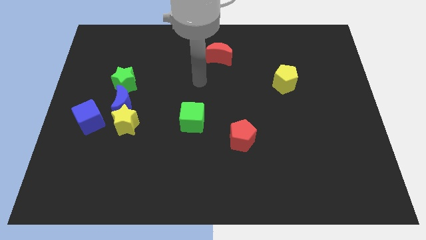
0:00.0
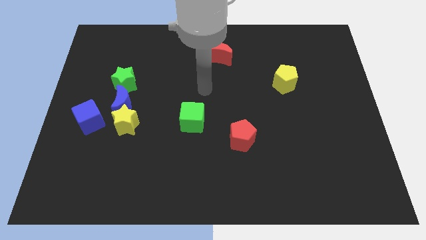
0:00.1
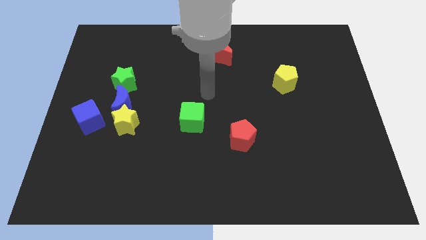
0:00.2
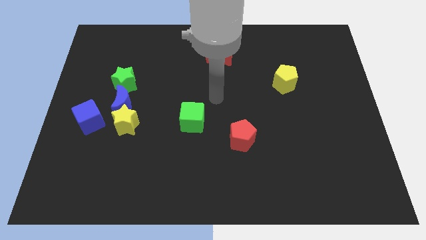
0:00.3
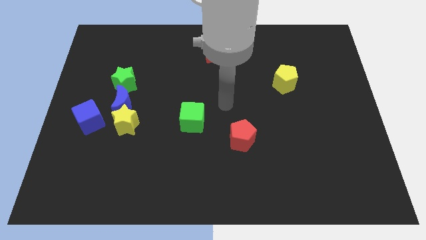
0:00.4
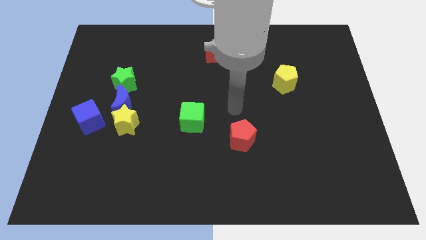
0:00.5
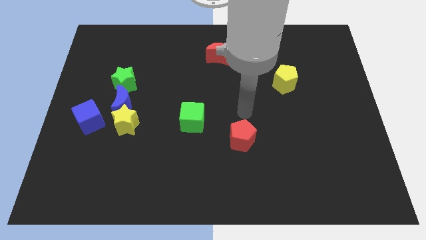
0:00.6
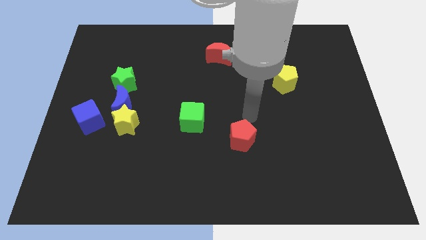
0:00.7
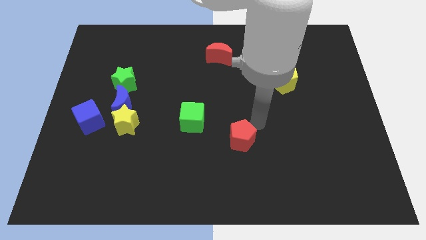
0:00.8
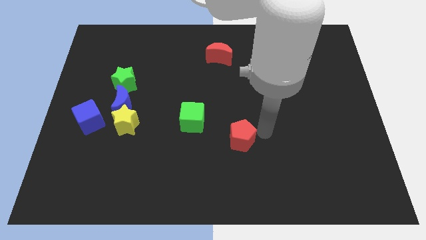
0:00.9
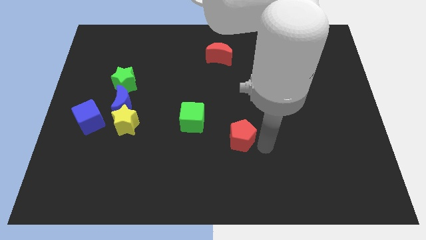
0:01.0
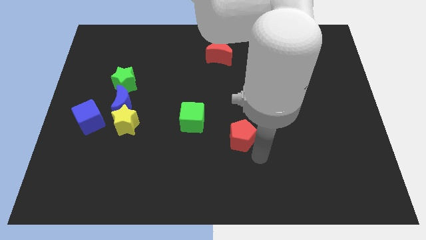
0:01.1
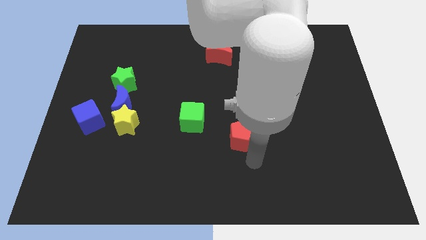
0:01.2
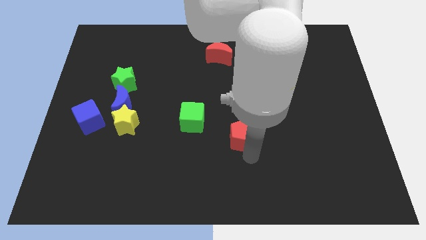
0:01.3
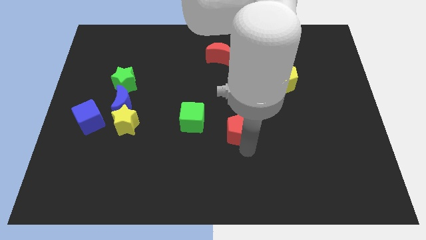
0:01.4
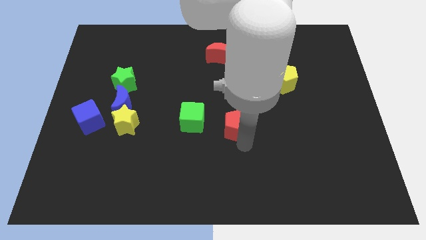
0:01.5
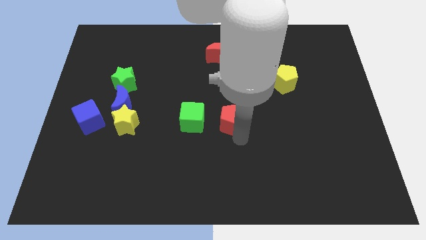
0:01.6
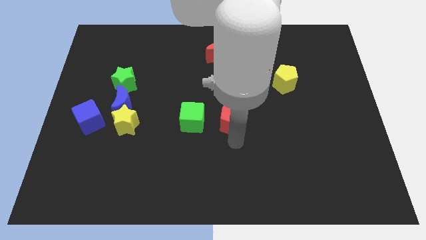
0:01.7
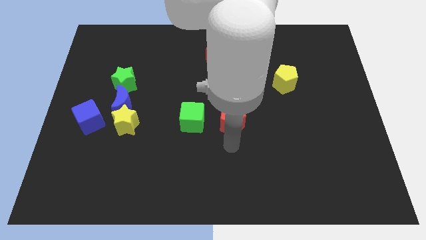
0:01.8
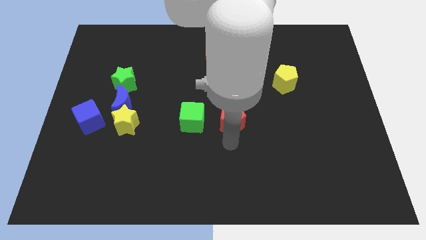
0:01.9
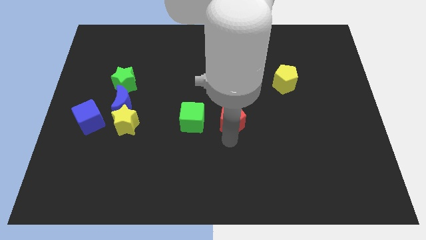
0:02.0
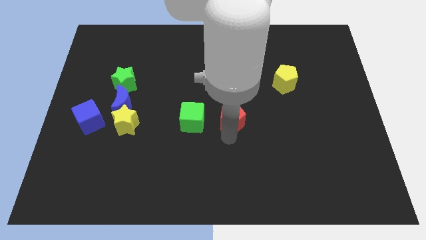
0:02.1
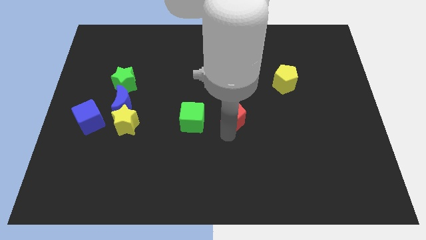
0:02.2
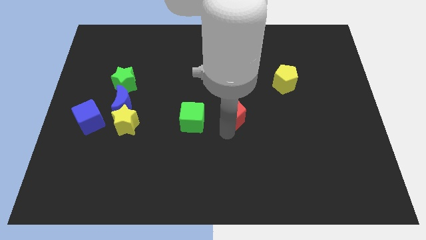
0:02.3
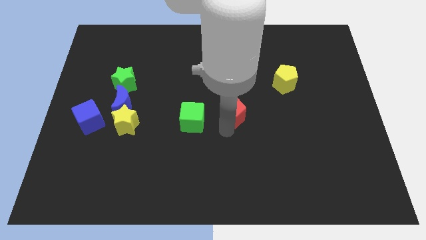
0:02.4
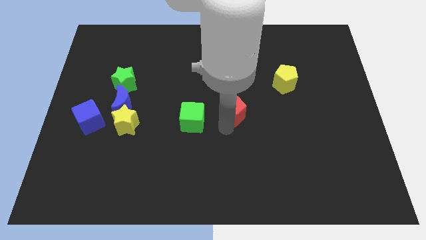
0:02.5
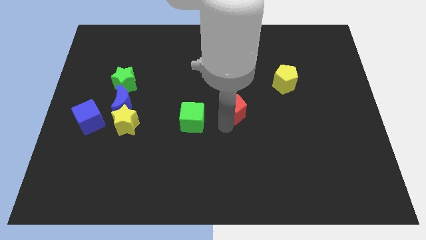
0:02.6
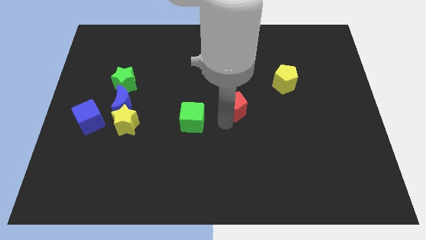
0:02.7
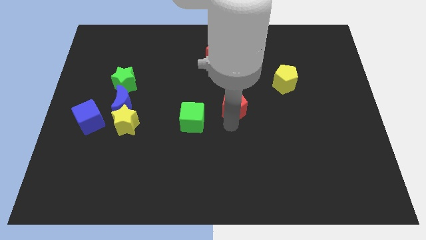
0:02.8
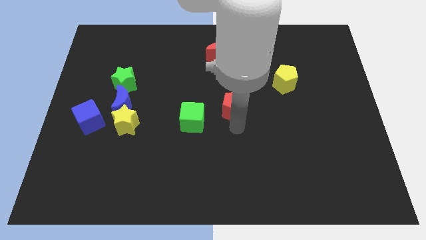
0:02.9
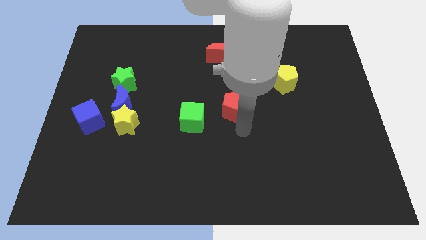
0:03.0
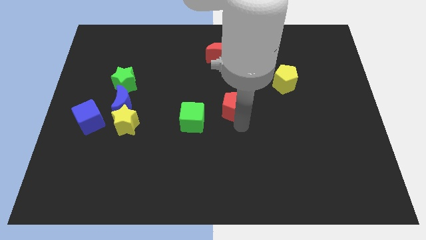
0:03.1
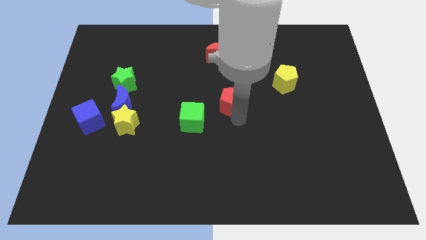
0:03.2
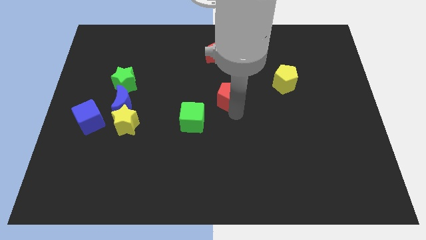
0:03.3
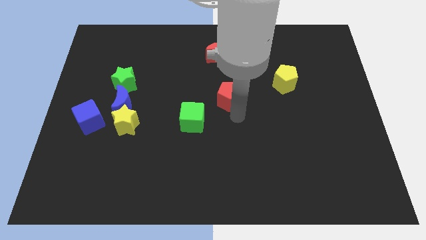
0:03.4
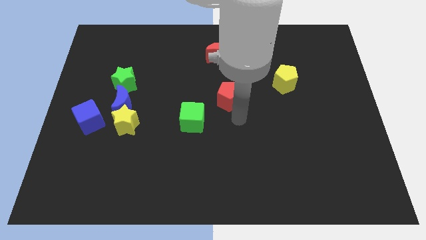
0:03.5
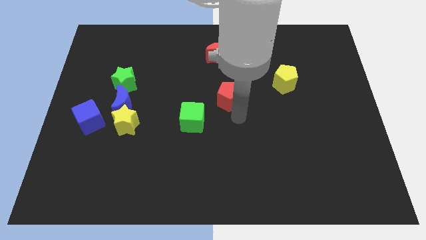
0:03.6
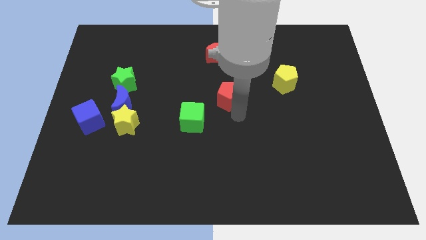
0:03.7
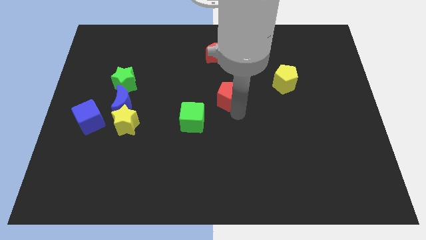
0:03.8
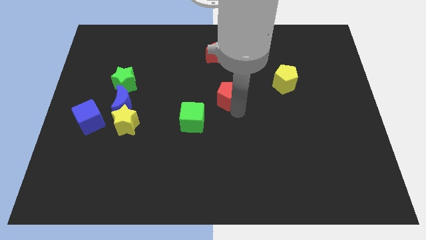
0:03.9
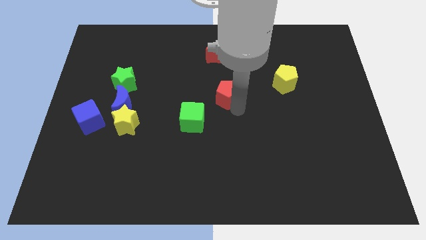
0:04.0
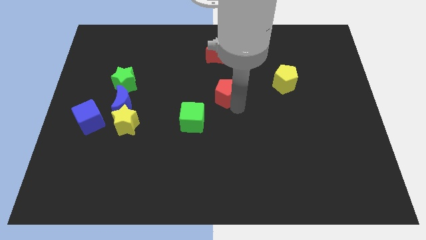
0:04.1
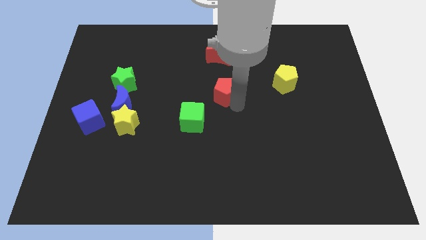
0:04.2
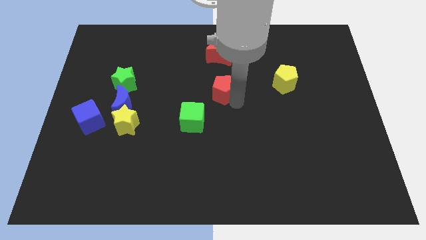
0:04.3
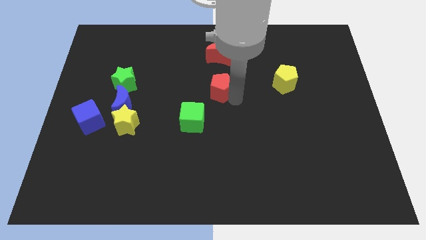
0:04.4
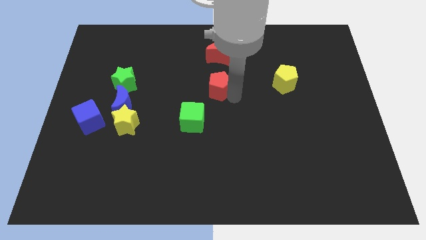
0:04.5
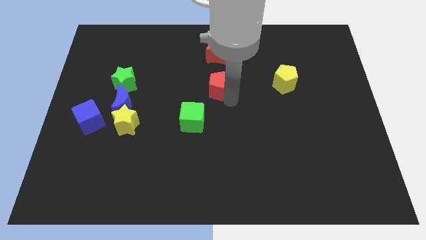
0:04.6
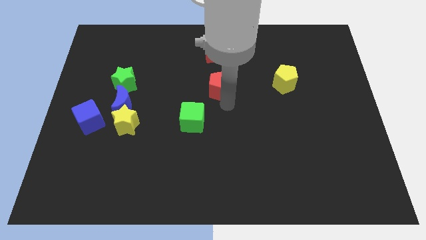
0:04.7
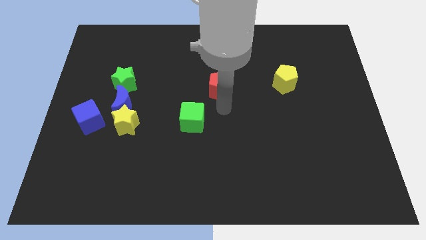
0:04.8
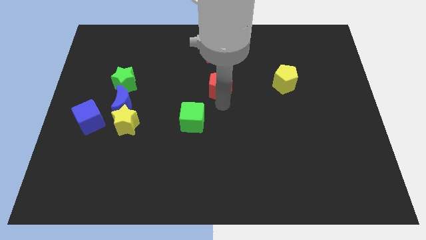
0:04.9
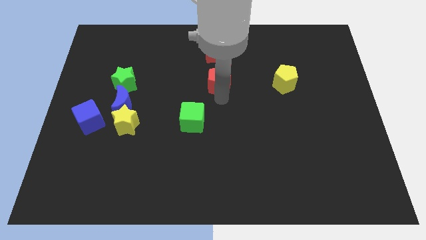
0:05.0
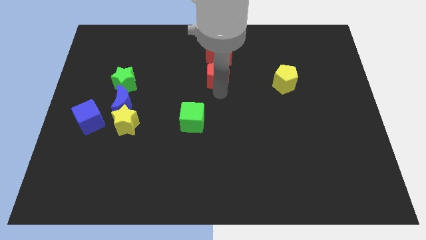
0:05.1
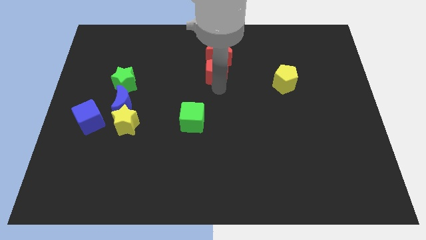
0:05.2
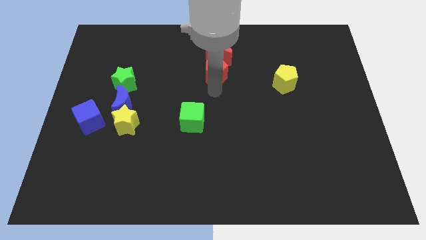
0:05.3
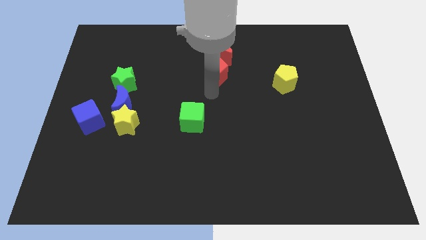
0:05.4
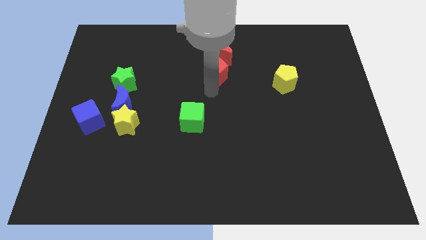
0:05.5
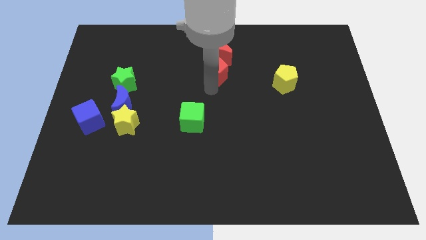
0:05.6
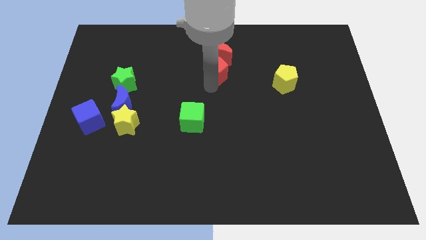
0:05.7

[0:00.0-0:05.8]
slide the red pentagon towards the red moon

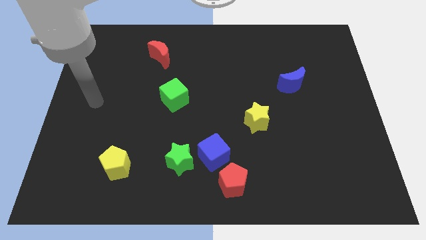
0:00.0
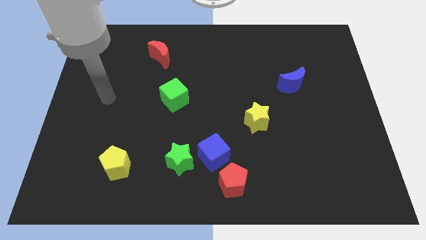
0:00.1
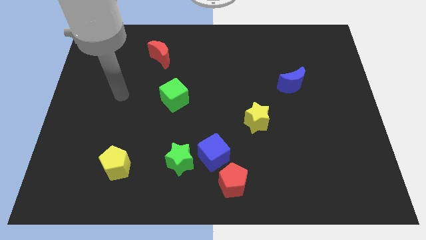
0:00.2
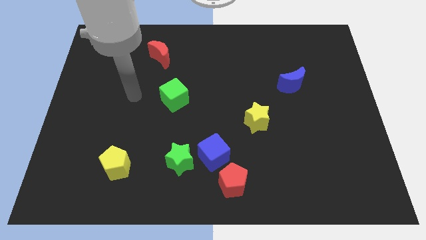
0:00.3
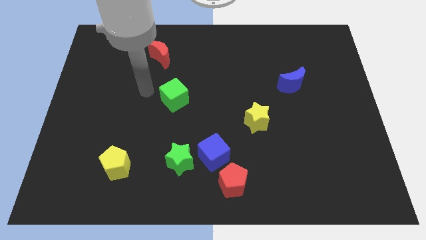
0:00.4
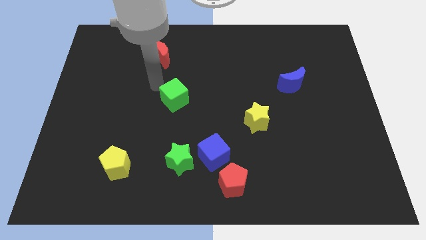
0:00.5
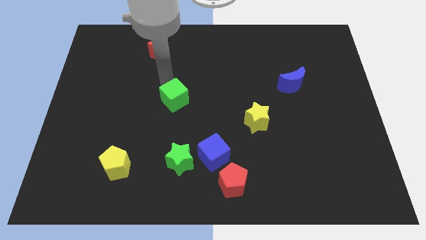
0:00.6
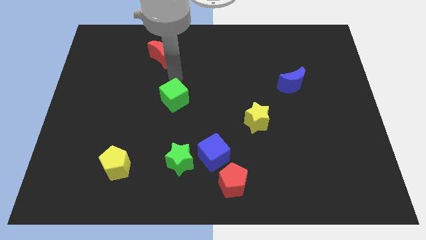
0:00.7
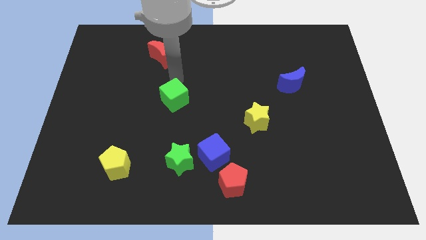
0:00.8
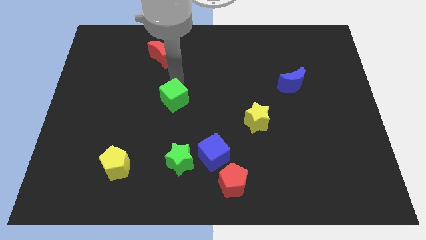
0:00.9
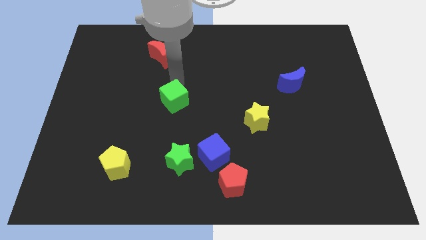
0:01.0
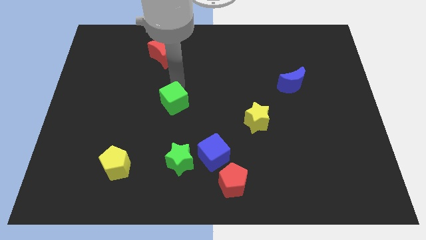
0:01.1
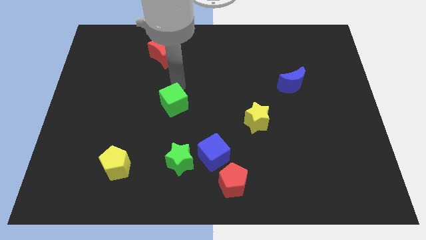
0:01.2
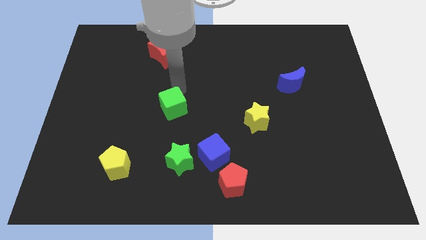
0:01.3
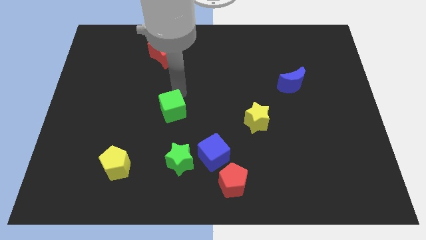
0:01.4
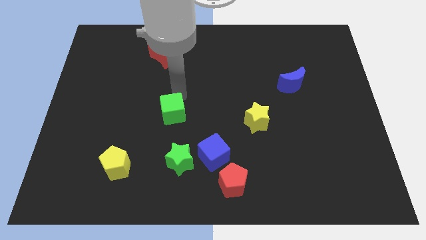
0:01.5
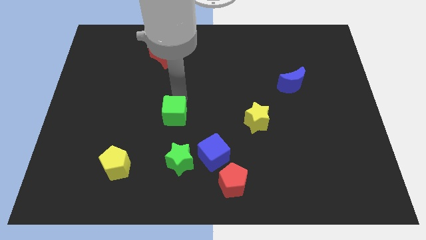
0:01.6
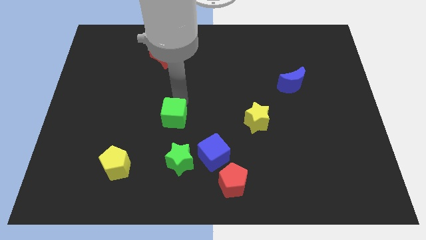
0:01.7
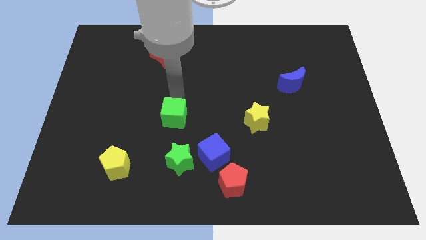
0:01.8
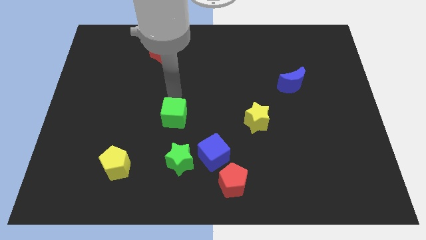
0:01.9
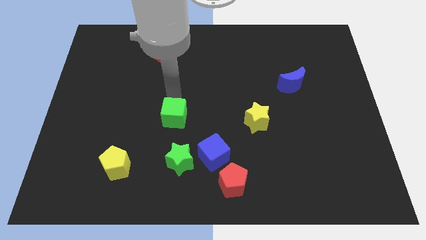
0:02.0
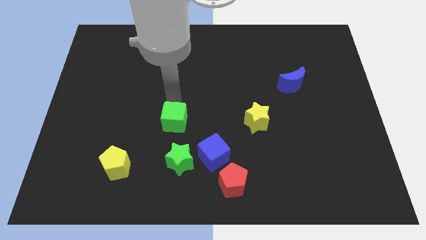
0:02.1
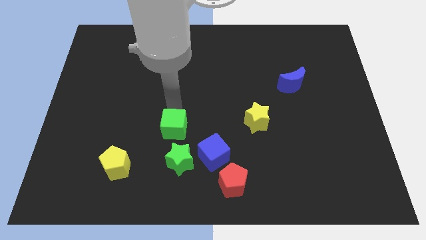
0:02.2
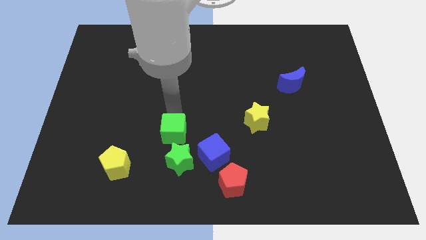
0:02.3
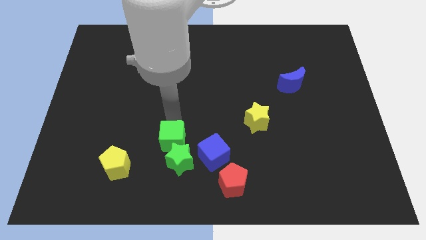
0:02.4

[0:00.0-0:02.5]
push the green cube towards the green star
